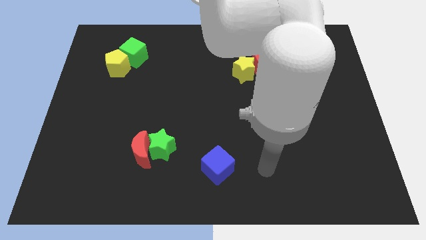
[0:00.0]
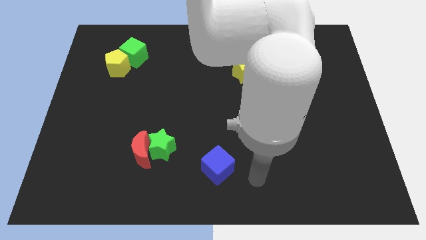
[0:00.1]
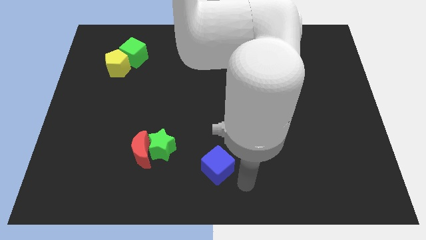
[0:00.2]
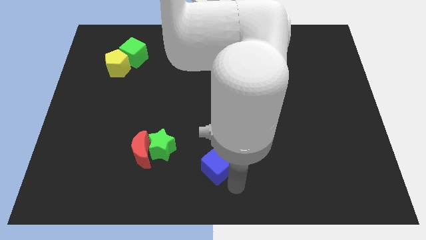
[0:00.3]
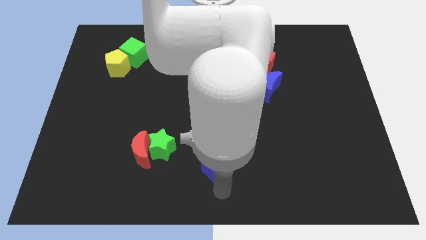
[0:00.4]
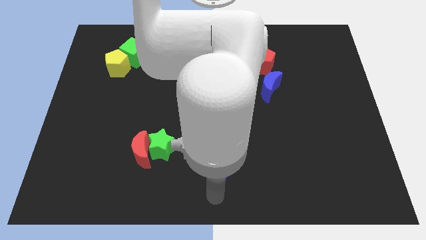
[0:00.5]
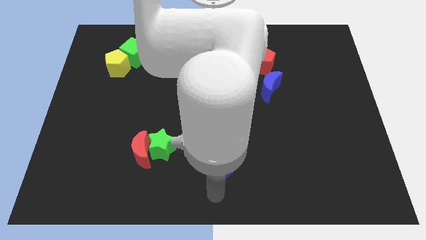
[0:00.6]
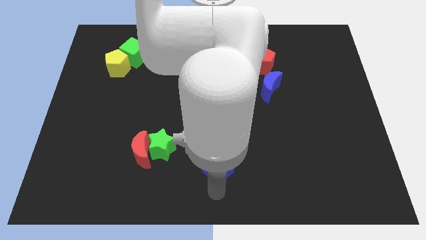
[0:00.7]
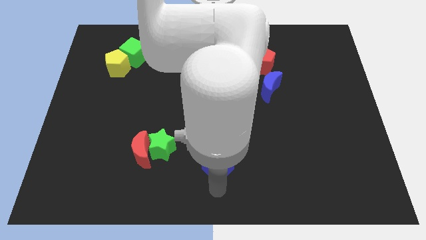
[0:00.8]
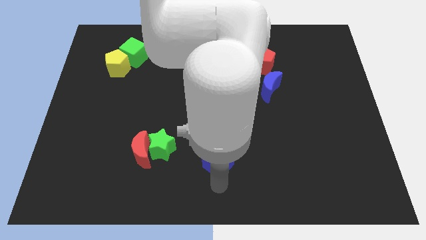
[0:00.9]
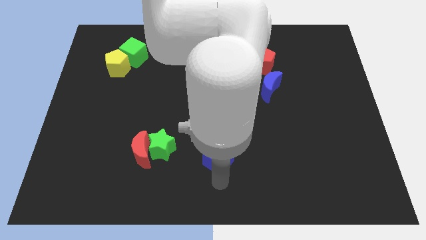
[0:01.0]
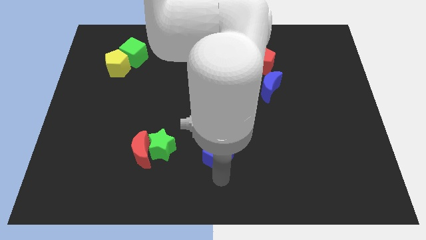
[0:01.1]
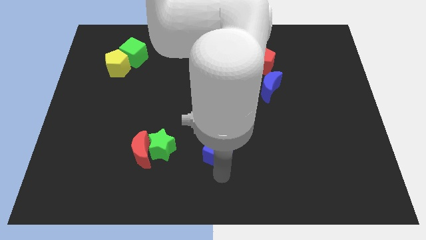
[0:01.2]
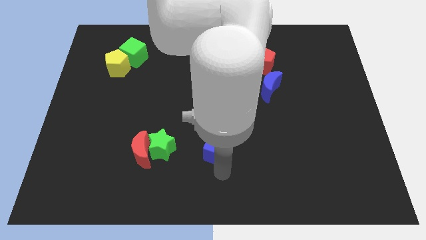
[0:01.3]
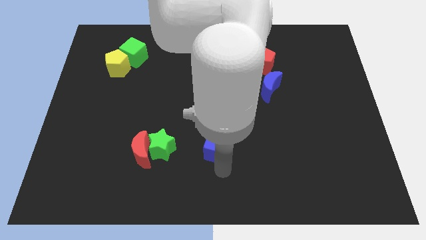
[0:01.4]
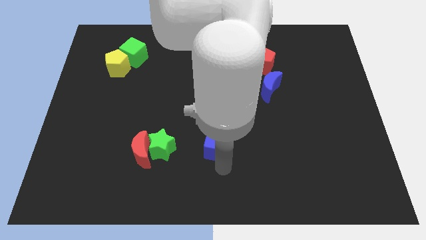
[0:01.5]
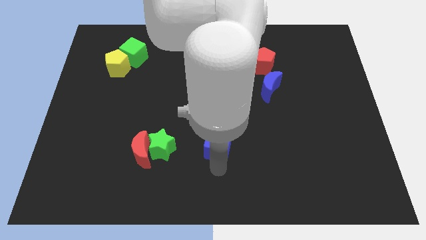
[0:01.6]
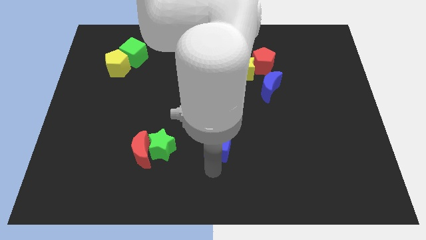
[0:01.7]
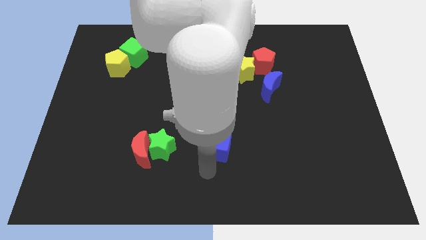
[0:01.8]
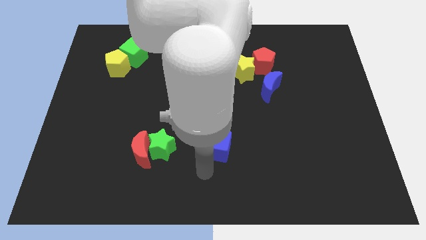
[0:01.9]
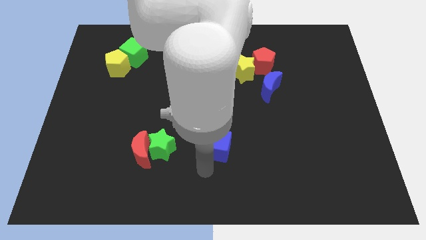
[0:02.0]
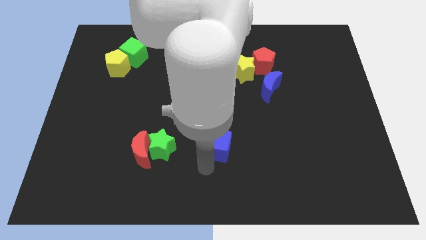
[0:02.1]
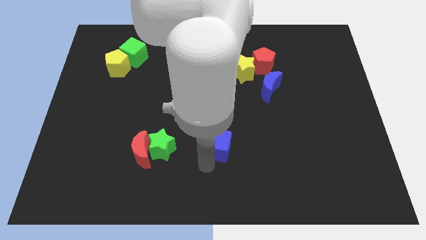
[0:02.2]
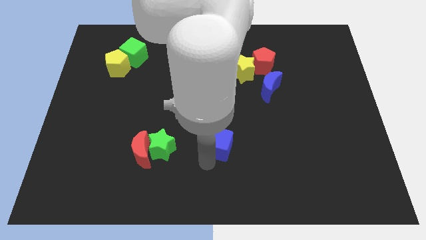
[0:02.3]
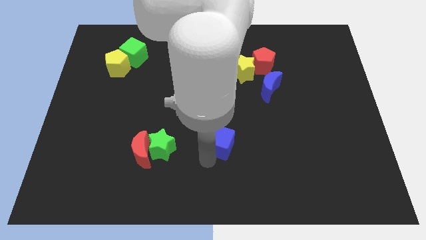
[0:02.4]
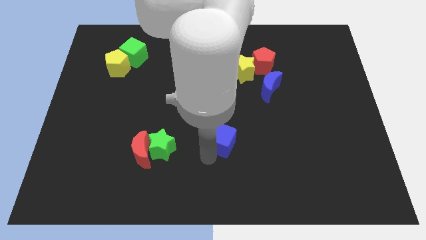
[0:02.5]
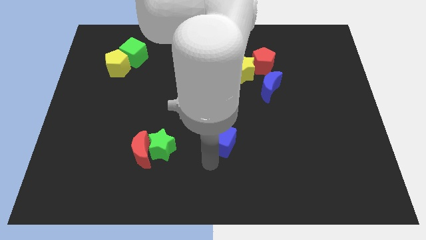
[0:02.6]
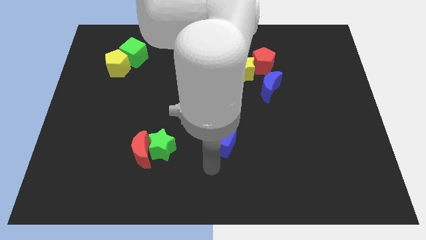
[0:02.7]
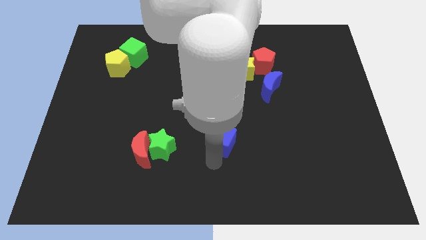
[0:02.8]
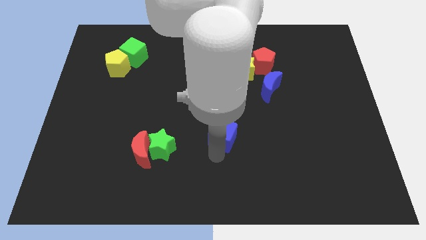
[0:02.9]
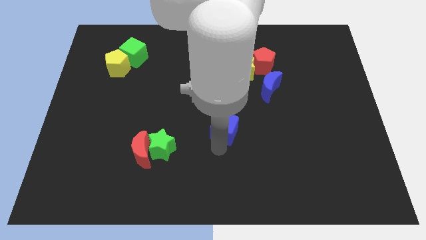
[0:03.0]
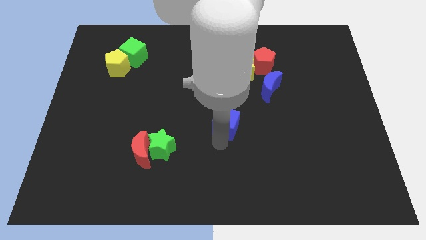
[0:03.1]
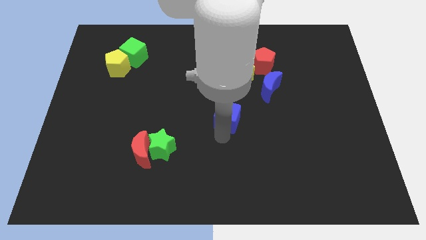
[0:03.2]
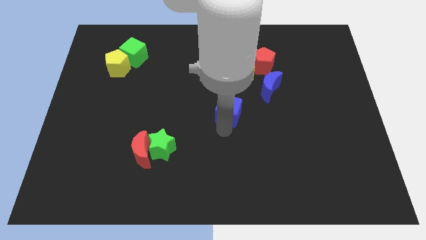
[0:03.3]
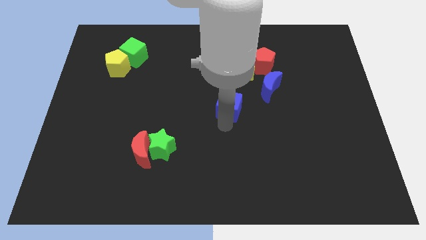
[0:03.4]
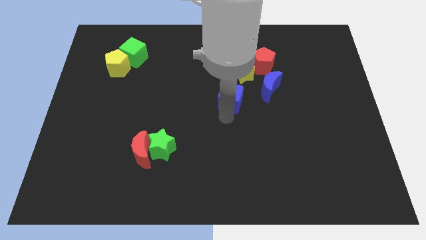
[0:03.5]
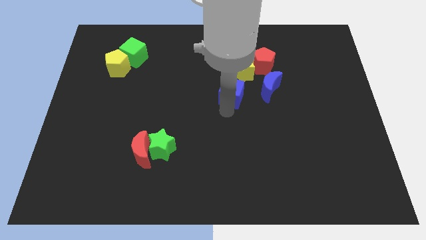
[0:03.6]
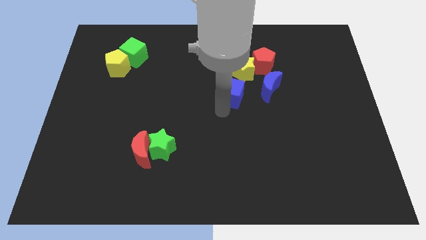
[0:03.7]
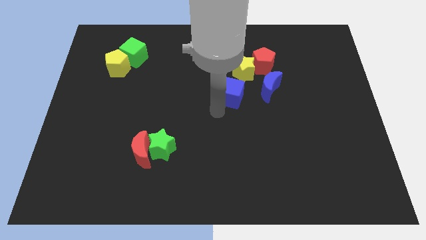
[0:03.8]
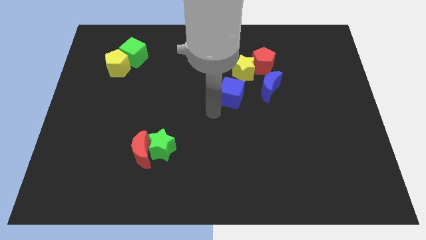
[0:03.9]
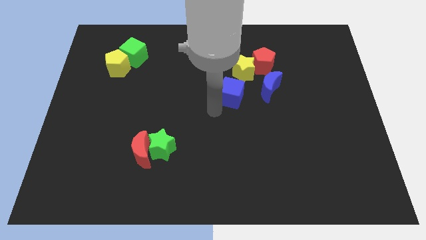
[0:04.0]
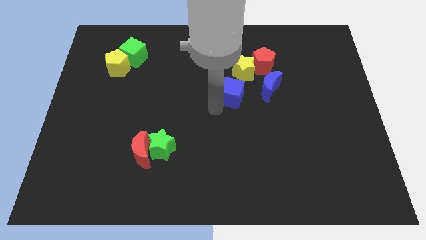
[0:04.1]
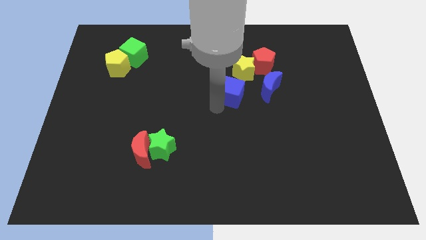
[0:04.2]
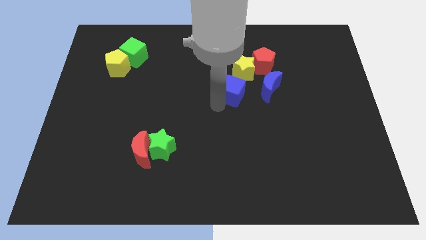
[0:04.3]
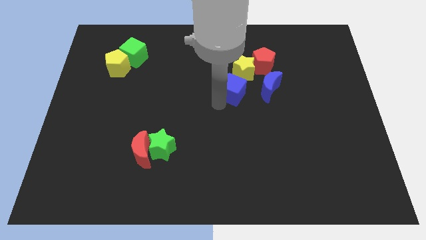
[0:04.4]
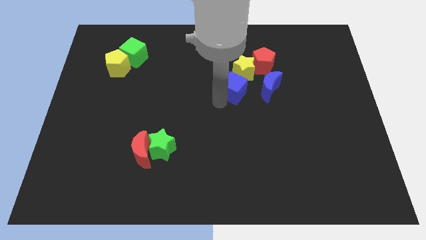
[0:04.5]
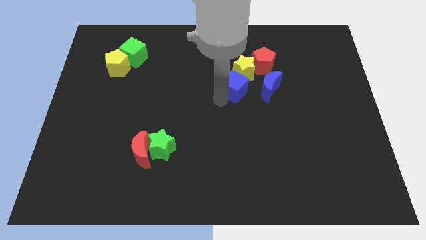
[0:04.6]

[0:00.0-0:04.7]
push the blue cube to the yellow star

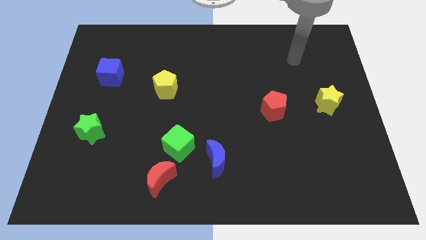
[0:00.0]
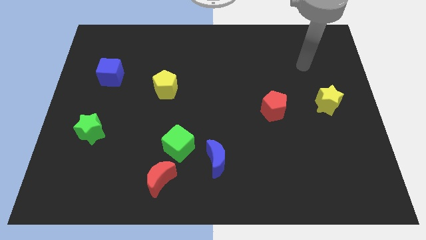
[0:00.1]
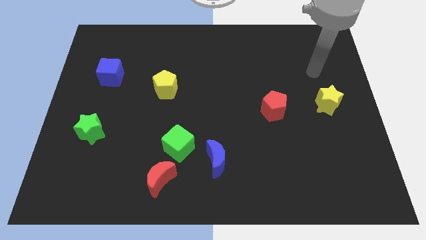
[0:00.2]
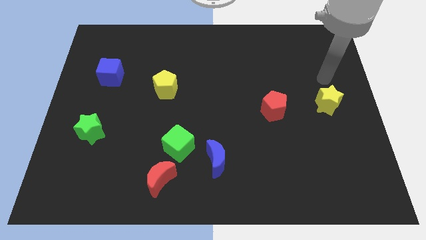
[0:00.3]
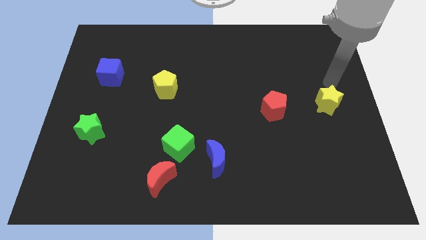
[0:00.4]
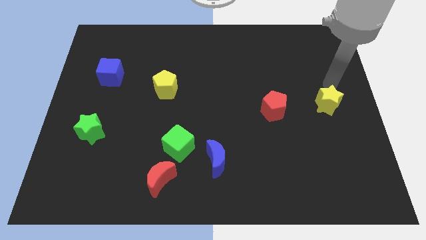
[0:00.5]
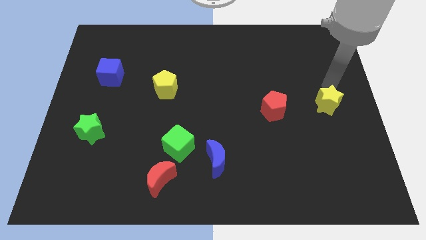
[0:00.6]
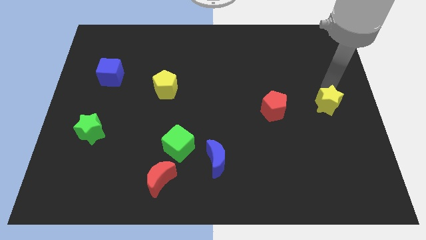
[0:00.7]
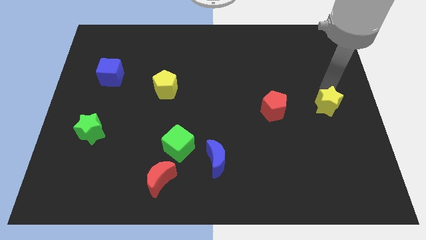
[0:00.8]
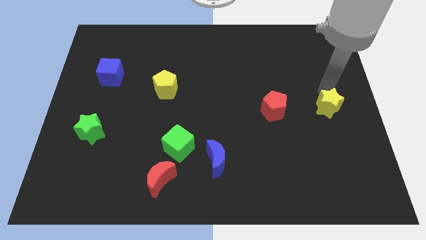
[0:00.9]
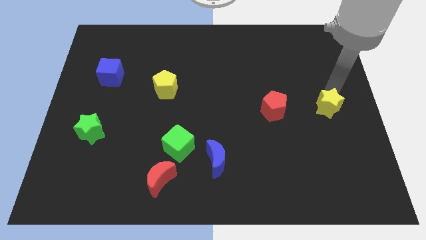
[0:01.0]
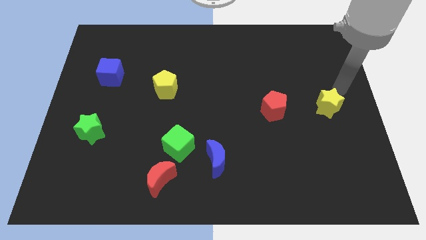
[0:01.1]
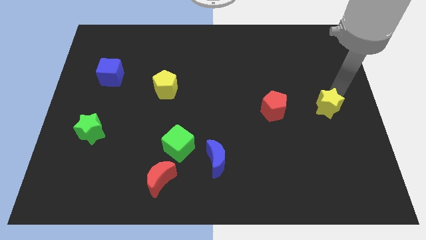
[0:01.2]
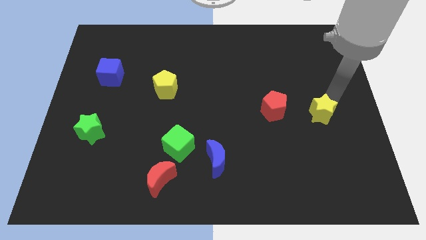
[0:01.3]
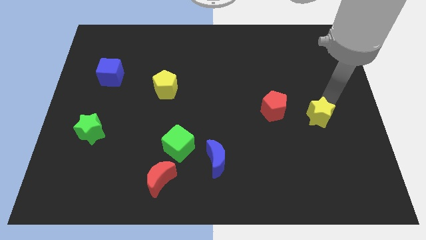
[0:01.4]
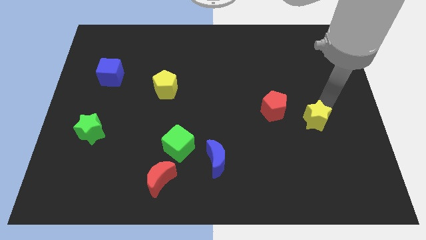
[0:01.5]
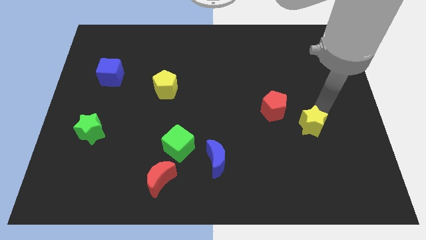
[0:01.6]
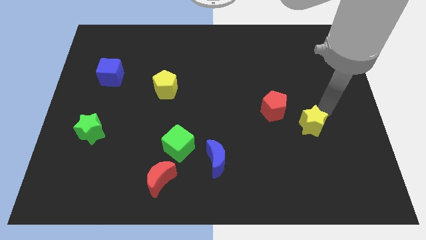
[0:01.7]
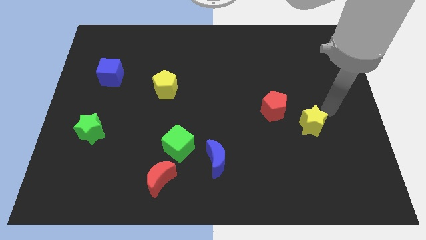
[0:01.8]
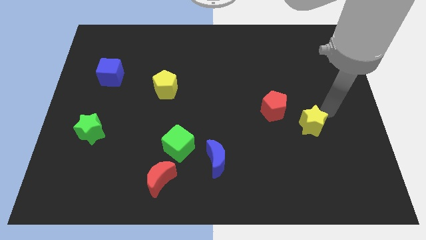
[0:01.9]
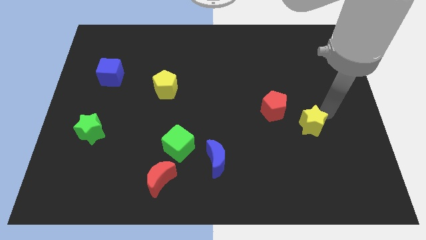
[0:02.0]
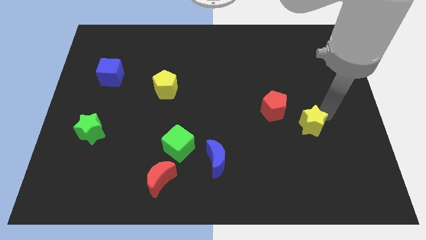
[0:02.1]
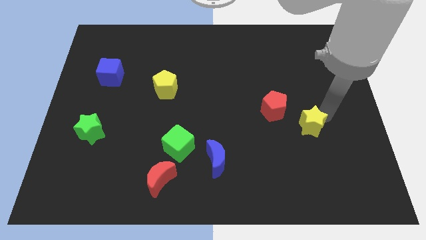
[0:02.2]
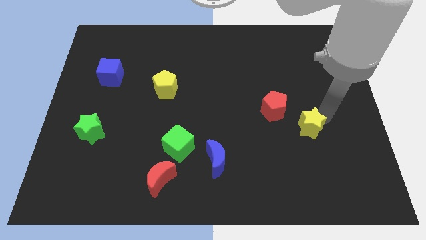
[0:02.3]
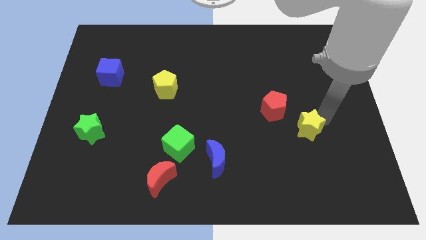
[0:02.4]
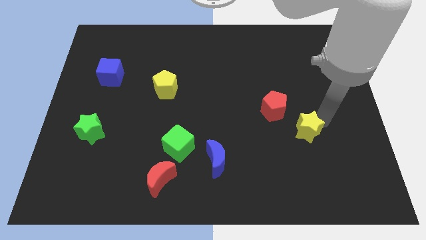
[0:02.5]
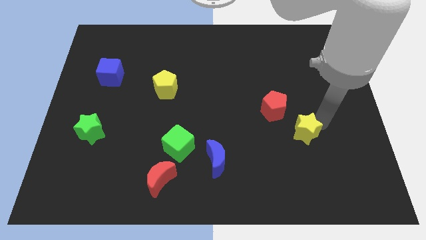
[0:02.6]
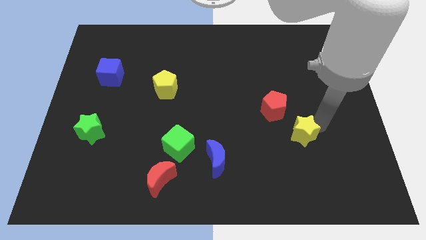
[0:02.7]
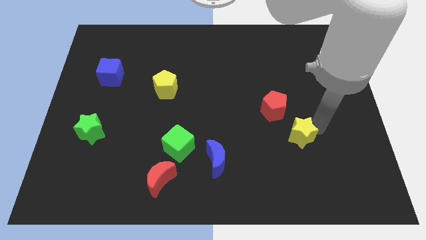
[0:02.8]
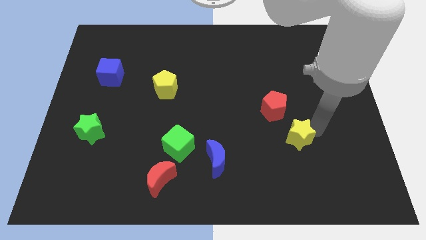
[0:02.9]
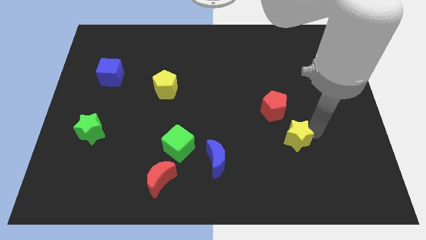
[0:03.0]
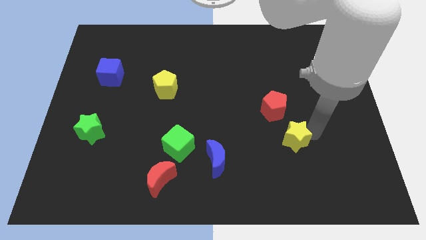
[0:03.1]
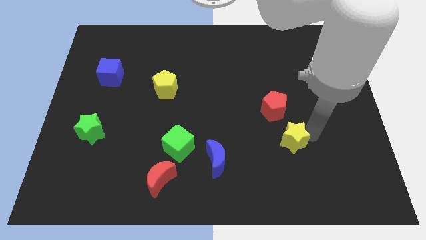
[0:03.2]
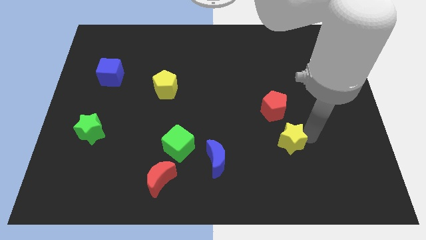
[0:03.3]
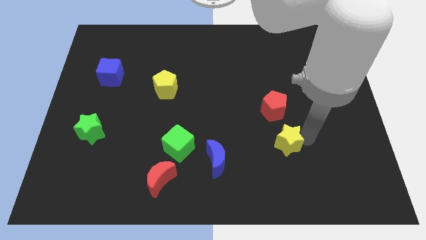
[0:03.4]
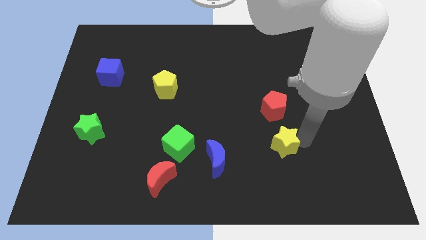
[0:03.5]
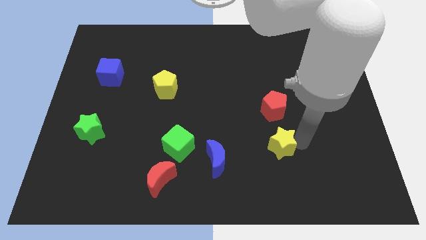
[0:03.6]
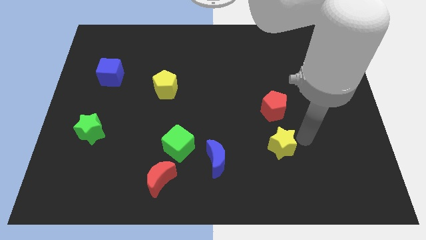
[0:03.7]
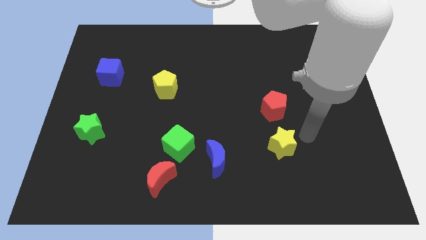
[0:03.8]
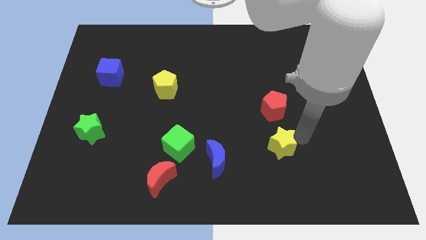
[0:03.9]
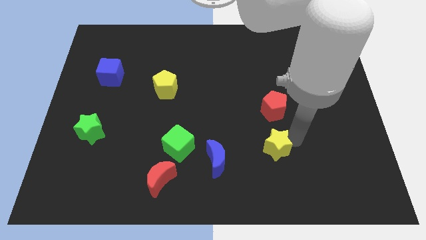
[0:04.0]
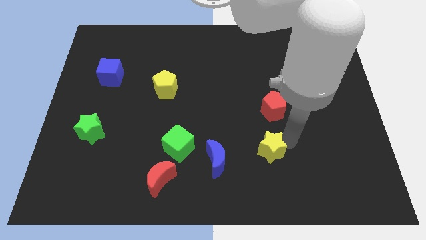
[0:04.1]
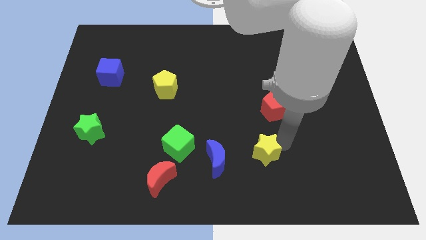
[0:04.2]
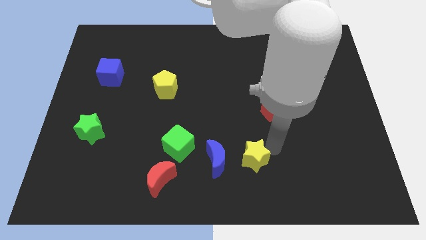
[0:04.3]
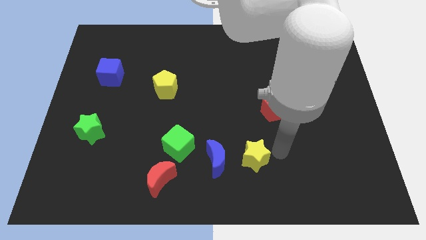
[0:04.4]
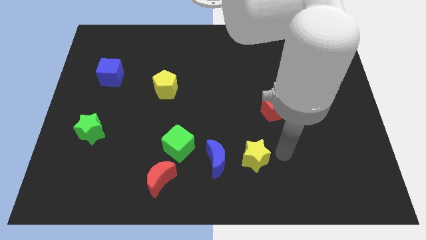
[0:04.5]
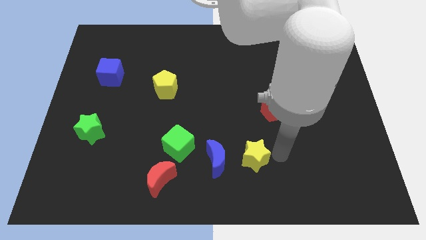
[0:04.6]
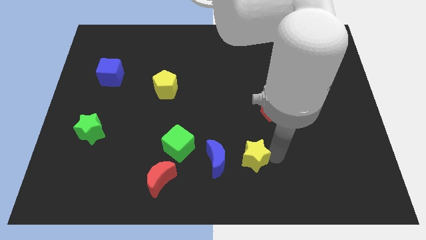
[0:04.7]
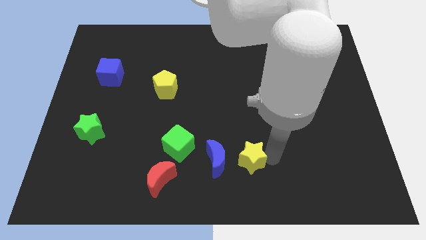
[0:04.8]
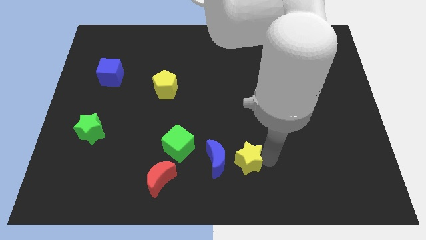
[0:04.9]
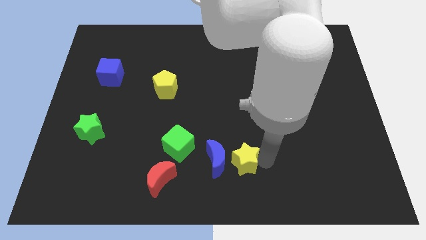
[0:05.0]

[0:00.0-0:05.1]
push the yellow star next to the blue moon
